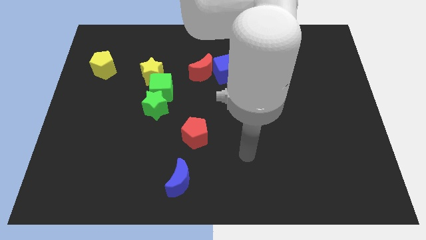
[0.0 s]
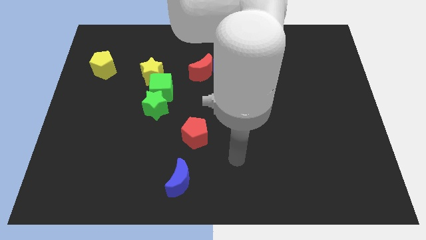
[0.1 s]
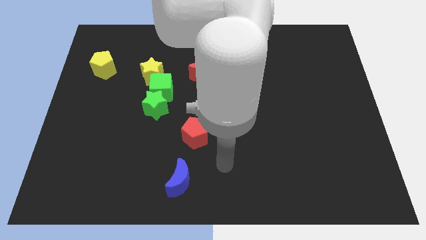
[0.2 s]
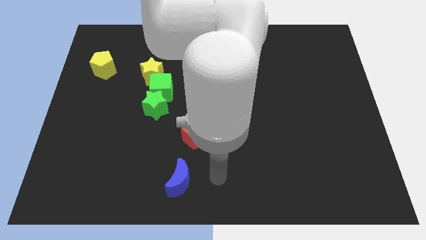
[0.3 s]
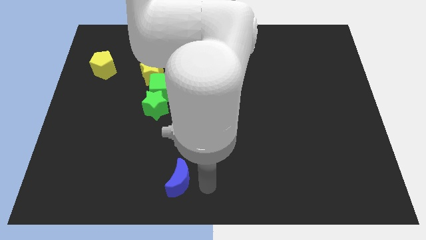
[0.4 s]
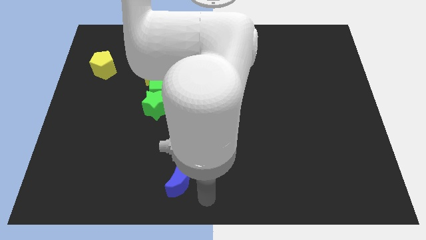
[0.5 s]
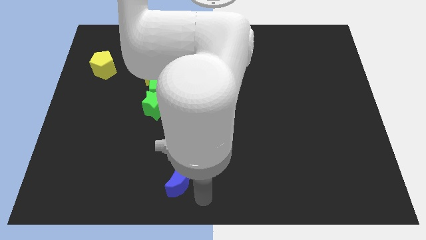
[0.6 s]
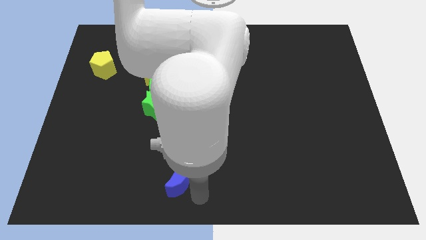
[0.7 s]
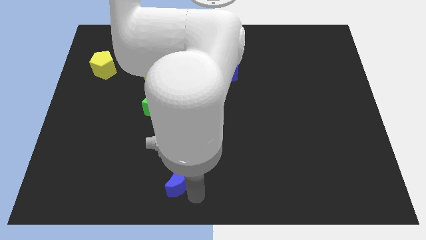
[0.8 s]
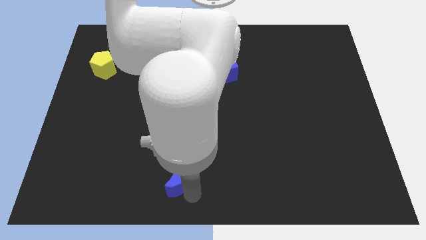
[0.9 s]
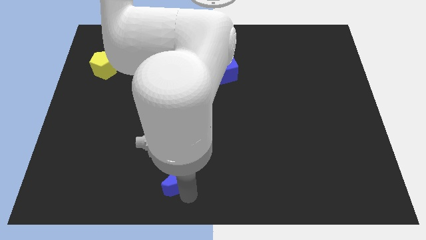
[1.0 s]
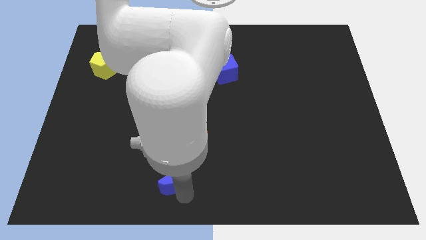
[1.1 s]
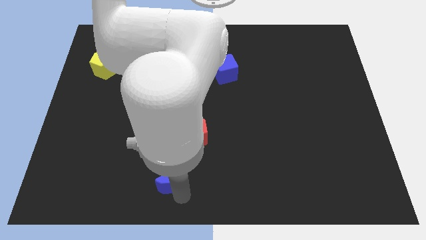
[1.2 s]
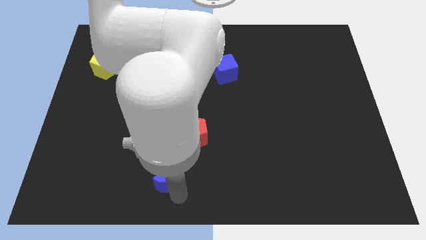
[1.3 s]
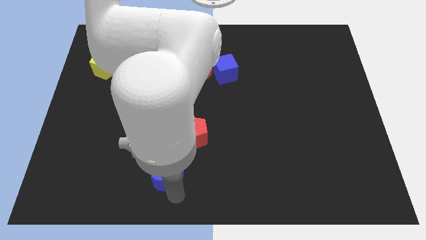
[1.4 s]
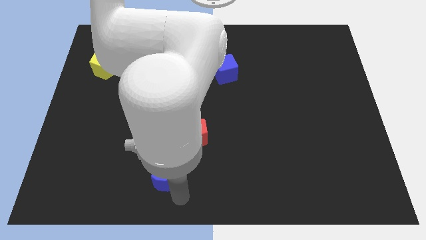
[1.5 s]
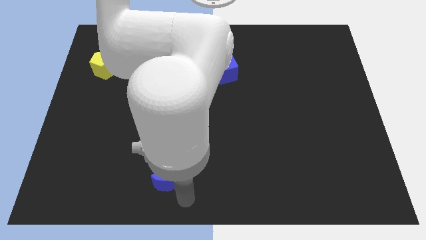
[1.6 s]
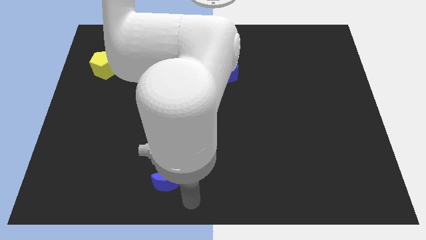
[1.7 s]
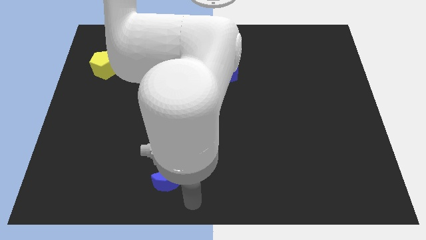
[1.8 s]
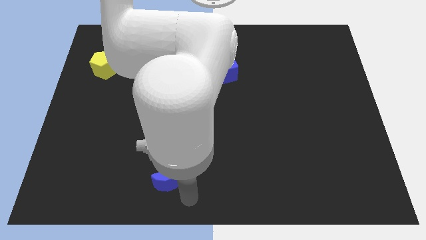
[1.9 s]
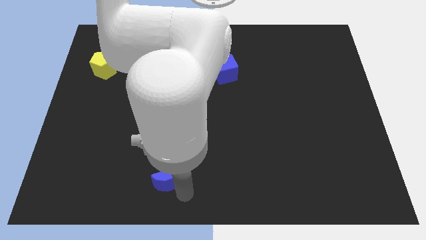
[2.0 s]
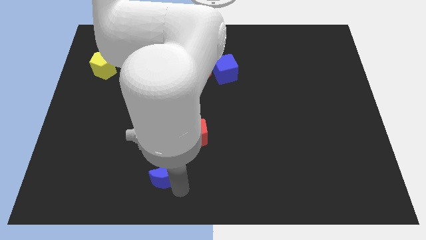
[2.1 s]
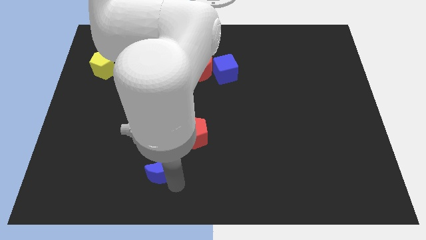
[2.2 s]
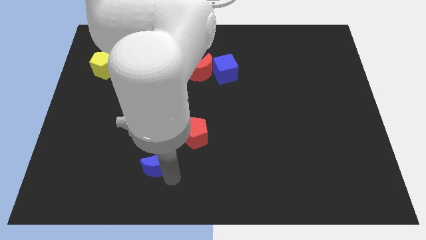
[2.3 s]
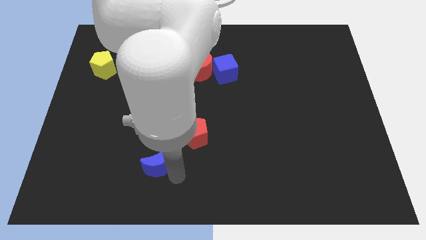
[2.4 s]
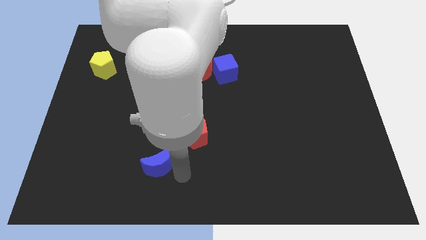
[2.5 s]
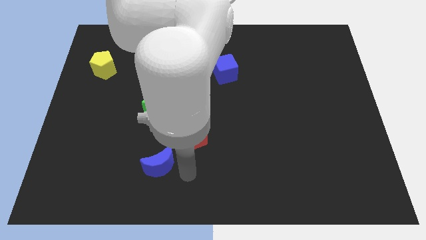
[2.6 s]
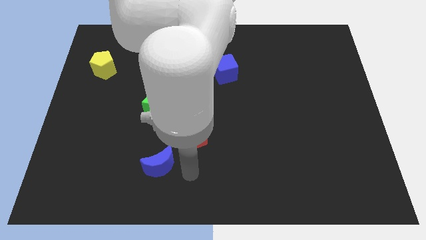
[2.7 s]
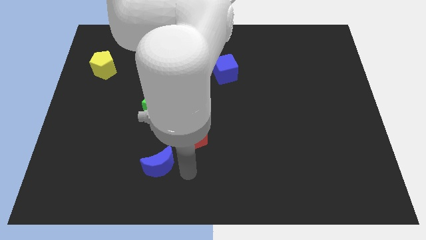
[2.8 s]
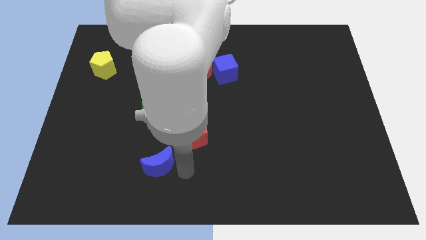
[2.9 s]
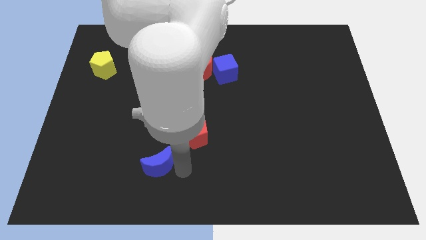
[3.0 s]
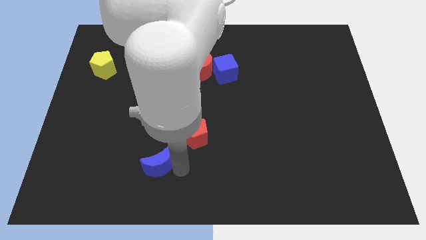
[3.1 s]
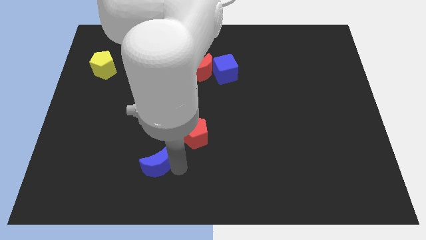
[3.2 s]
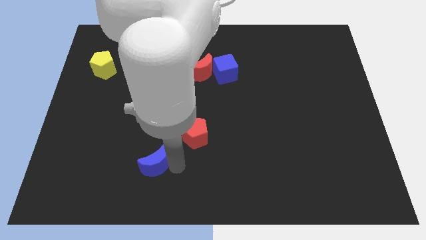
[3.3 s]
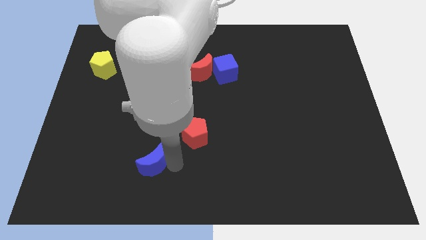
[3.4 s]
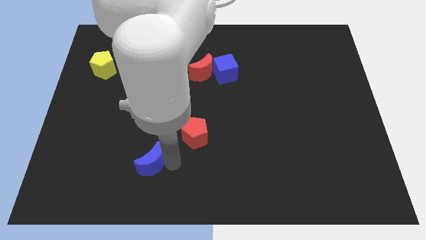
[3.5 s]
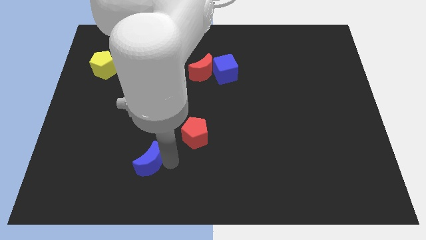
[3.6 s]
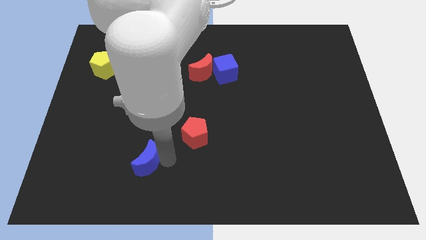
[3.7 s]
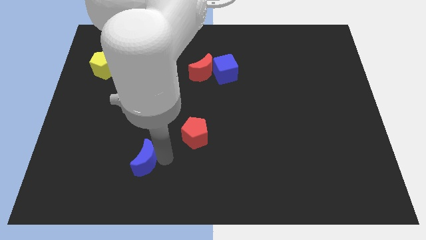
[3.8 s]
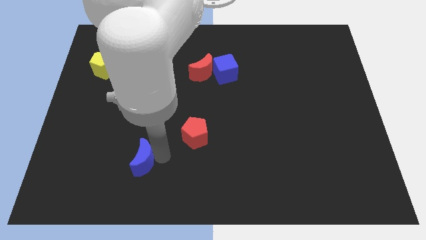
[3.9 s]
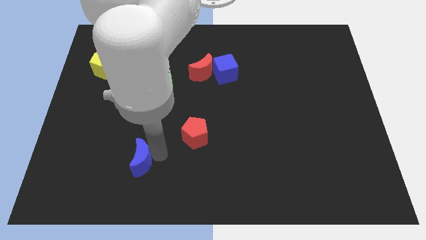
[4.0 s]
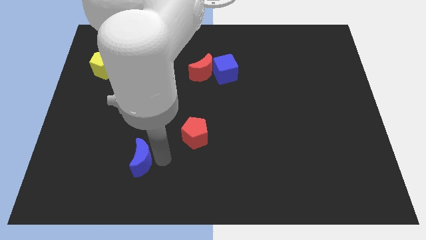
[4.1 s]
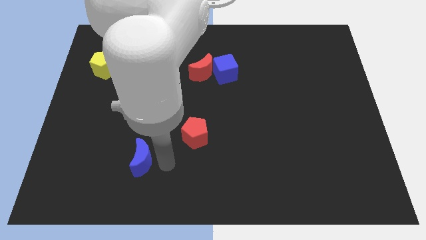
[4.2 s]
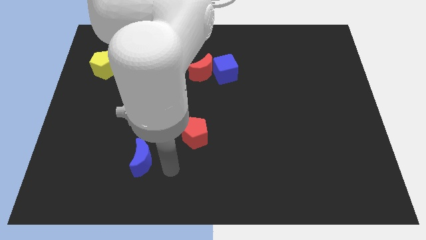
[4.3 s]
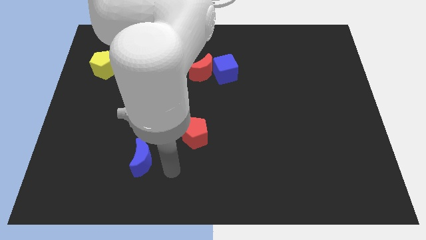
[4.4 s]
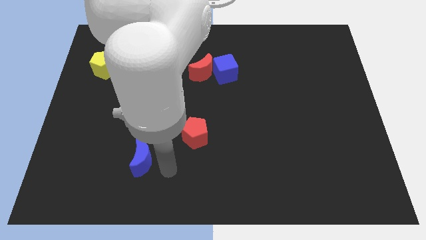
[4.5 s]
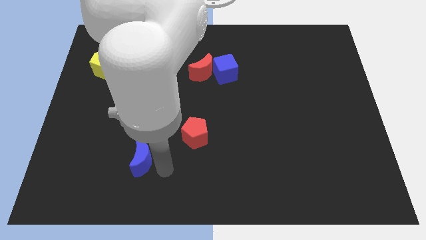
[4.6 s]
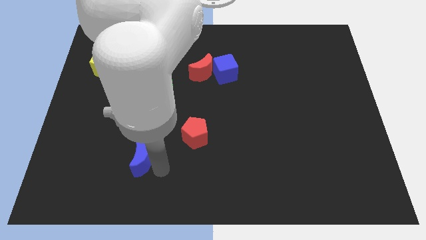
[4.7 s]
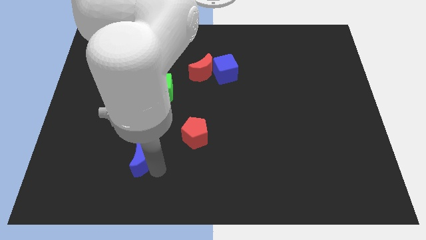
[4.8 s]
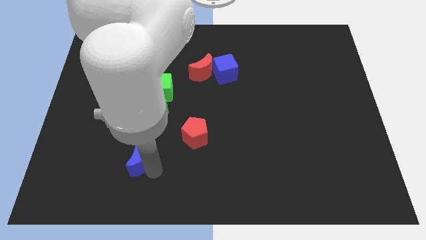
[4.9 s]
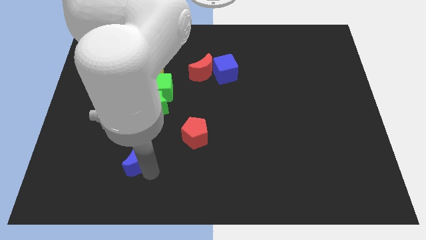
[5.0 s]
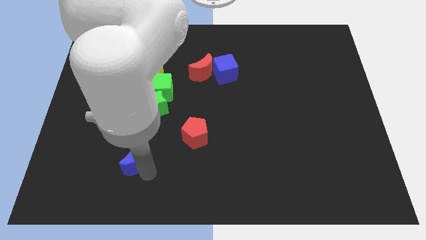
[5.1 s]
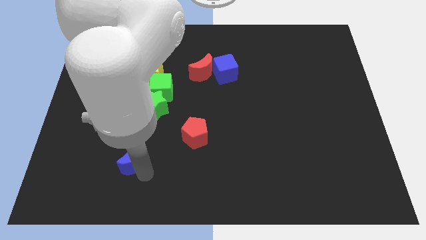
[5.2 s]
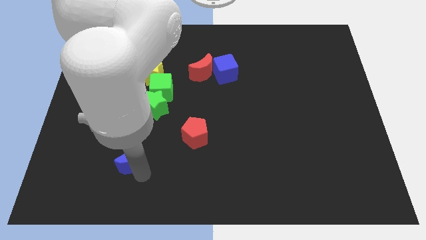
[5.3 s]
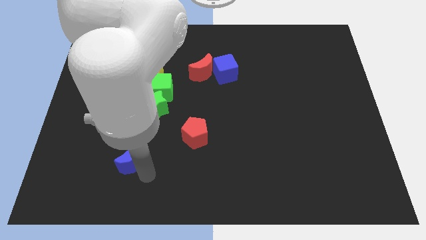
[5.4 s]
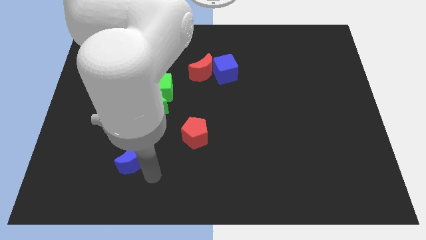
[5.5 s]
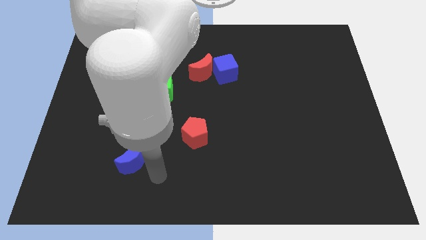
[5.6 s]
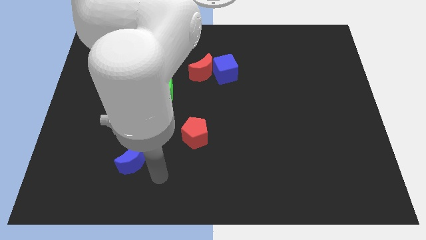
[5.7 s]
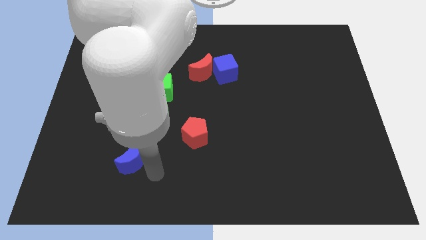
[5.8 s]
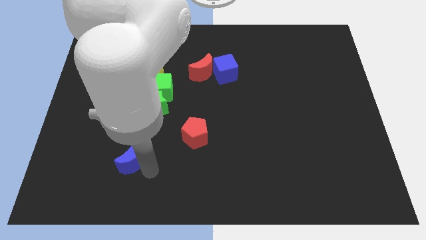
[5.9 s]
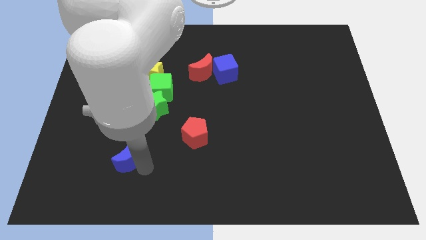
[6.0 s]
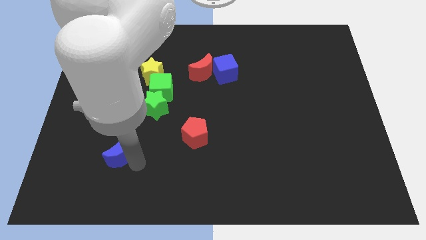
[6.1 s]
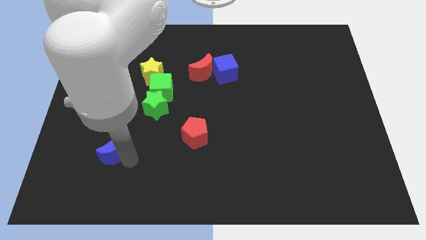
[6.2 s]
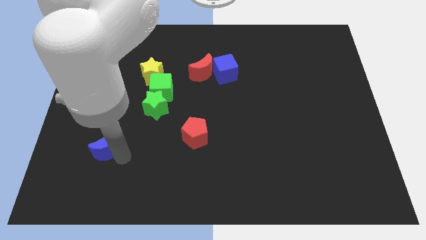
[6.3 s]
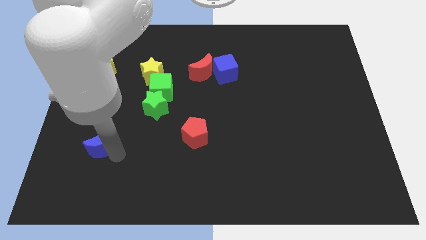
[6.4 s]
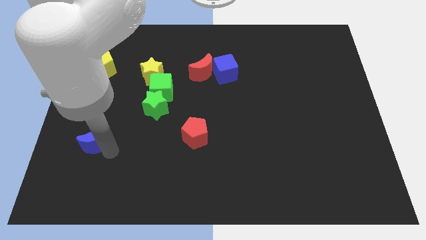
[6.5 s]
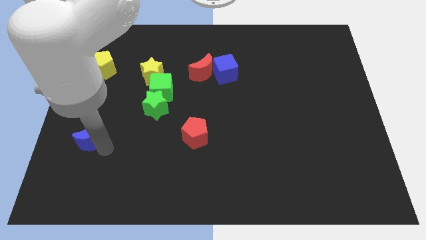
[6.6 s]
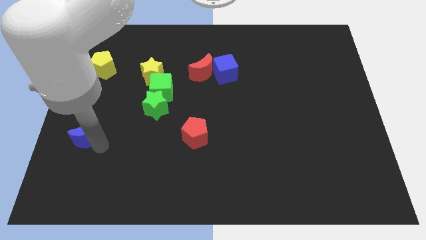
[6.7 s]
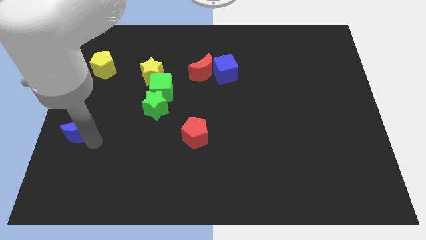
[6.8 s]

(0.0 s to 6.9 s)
slide the blue moon to the left side

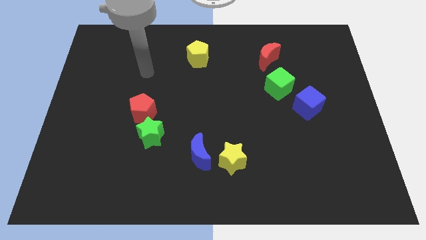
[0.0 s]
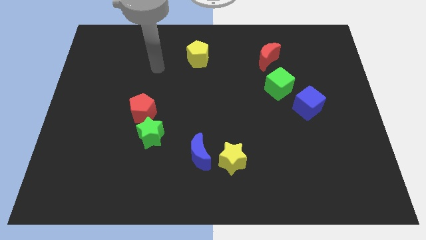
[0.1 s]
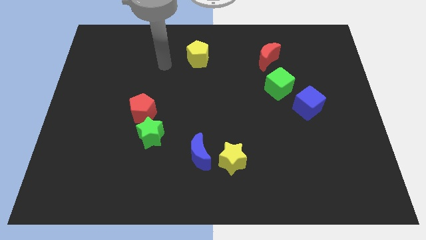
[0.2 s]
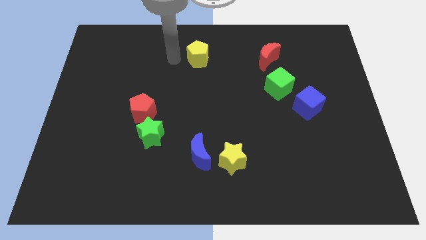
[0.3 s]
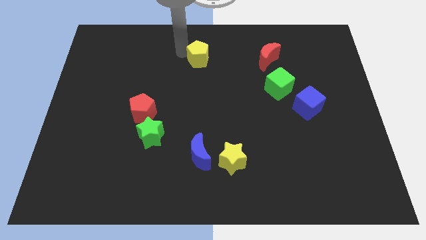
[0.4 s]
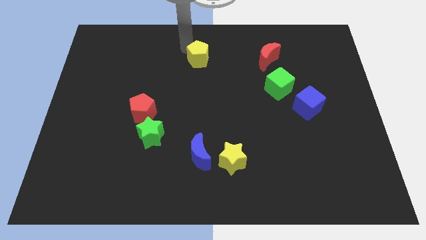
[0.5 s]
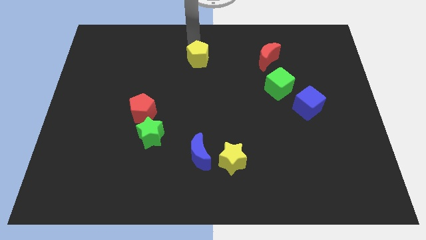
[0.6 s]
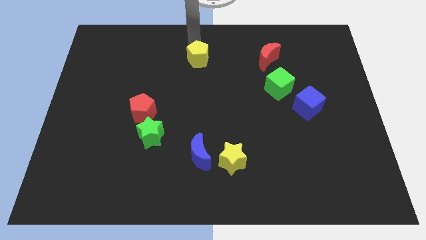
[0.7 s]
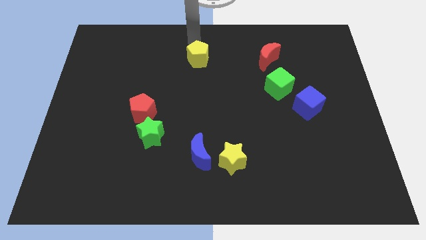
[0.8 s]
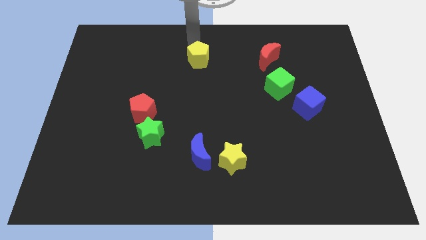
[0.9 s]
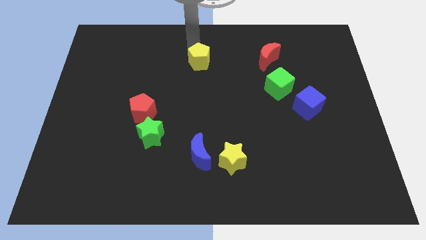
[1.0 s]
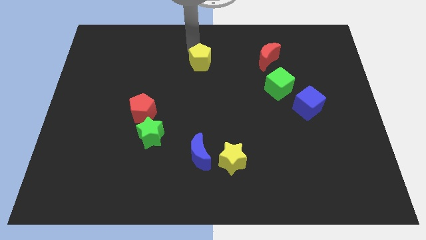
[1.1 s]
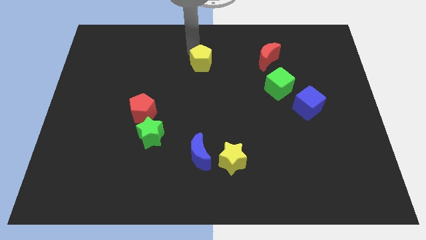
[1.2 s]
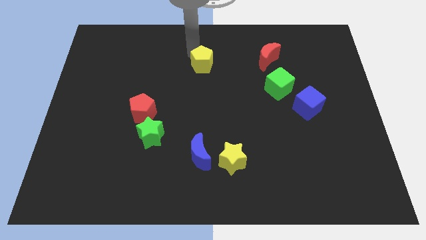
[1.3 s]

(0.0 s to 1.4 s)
put the yellow pentagon to the center
